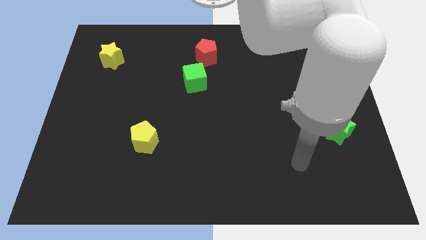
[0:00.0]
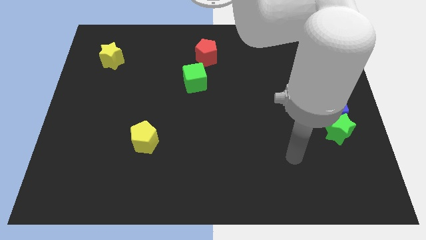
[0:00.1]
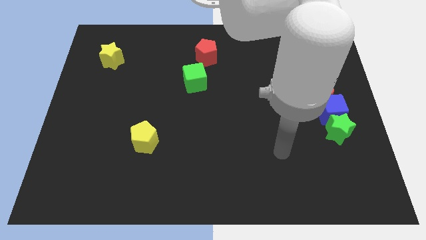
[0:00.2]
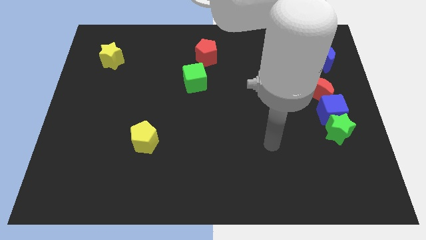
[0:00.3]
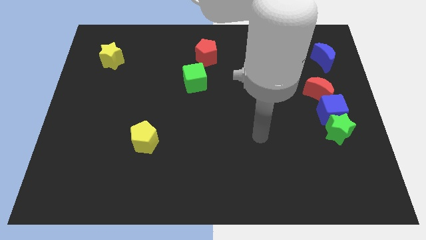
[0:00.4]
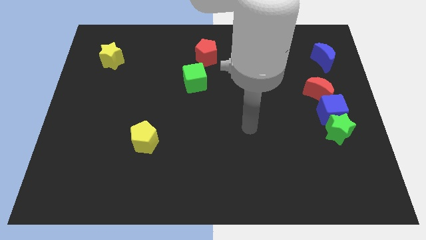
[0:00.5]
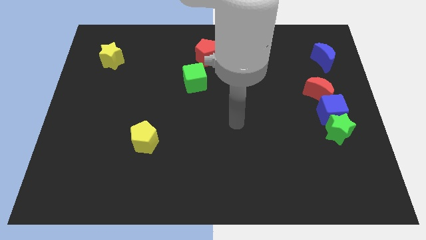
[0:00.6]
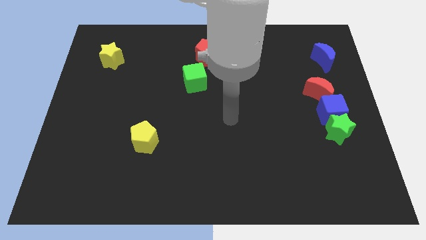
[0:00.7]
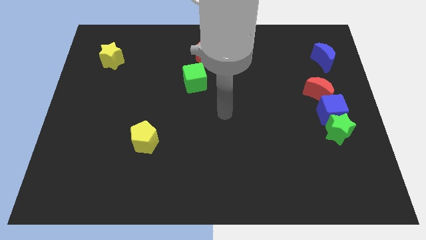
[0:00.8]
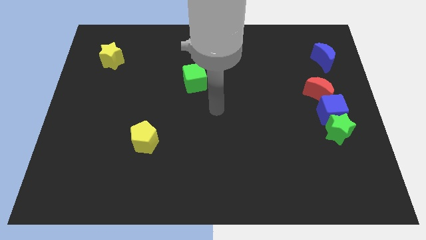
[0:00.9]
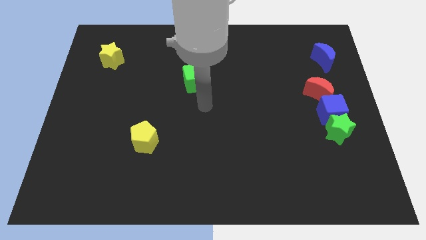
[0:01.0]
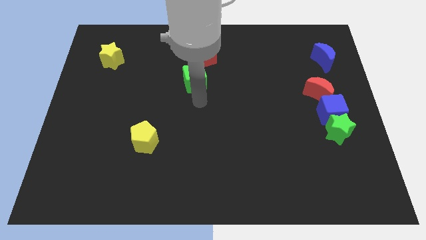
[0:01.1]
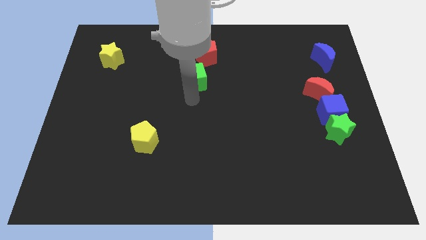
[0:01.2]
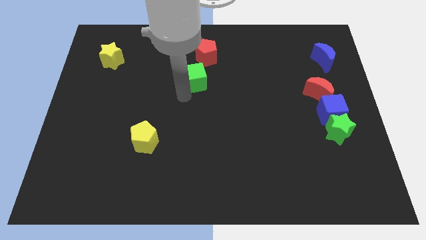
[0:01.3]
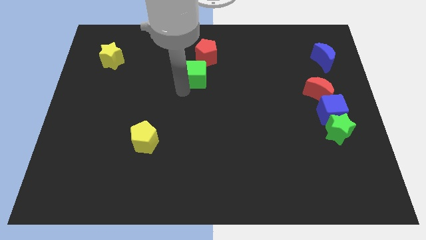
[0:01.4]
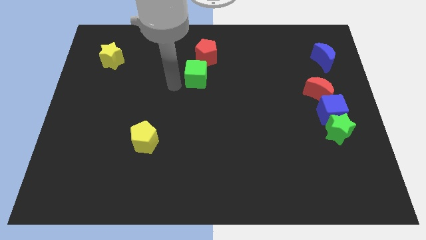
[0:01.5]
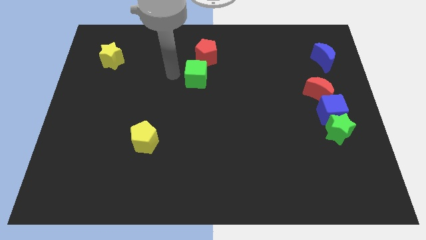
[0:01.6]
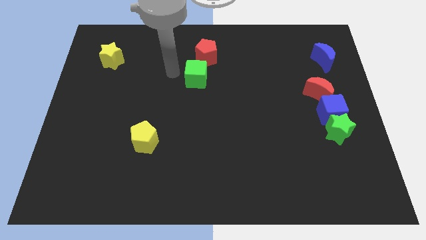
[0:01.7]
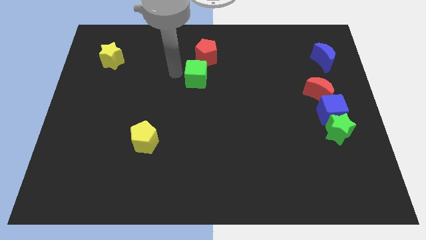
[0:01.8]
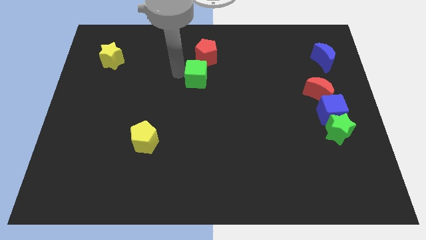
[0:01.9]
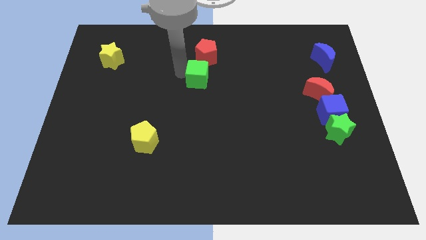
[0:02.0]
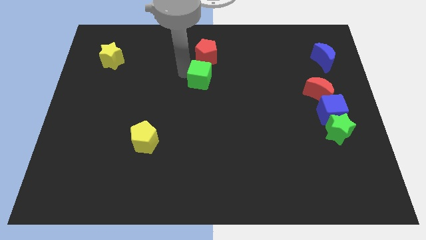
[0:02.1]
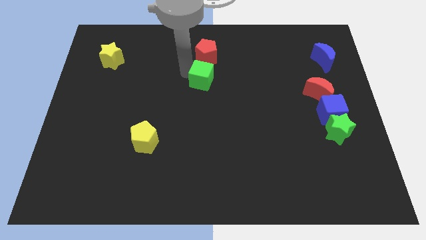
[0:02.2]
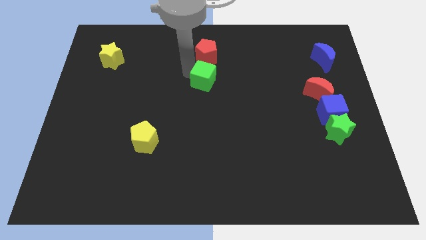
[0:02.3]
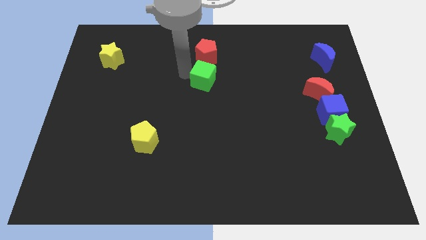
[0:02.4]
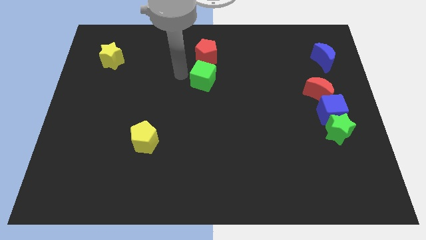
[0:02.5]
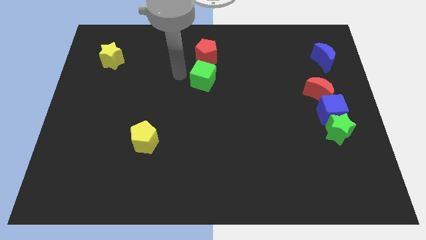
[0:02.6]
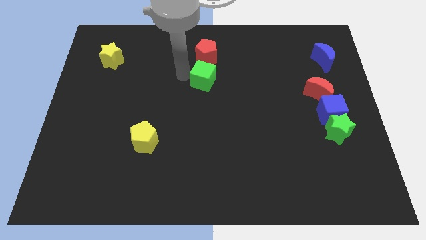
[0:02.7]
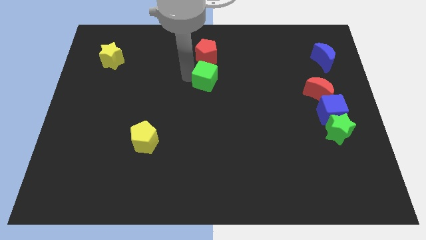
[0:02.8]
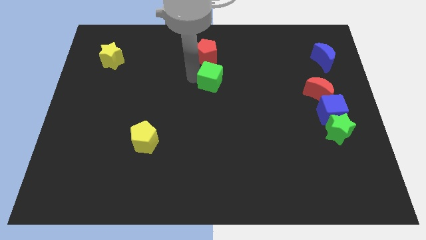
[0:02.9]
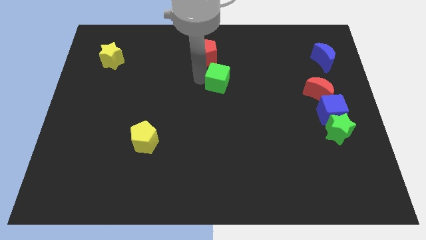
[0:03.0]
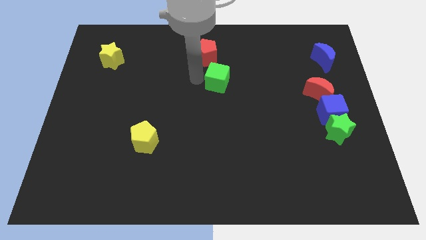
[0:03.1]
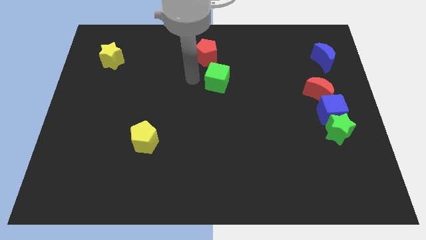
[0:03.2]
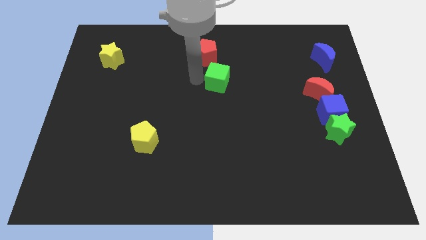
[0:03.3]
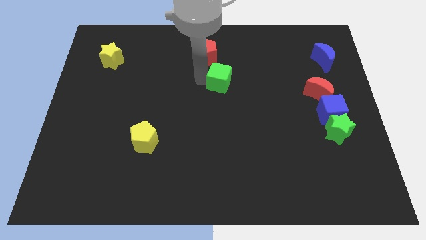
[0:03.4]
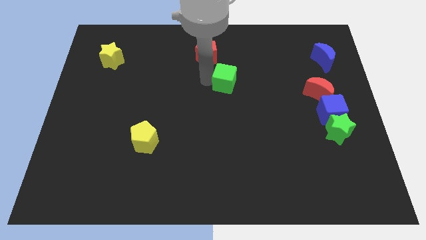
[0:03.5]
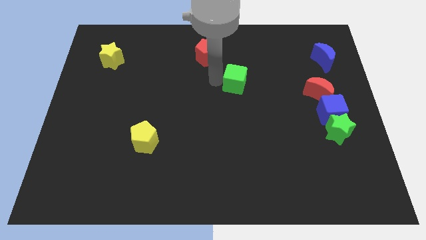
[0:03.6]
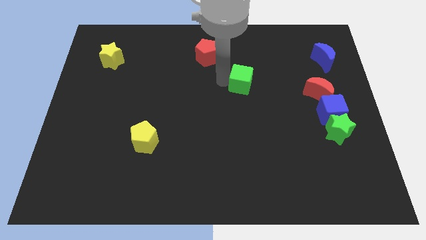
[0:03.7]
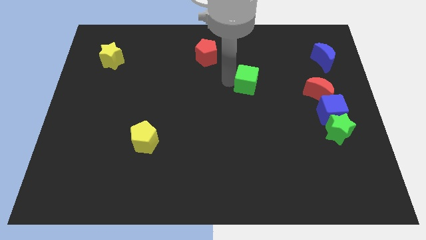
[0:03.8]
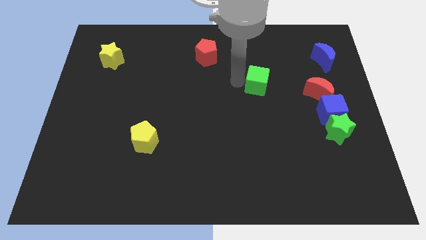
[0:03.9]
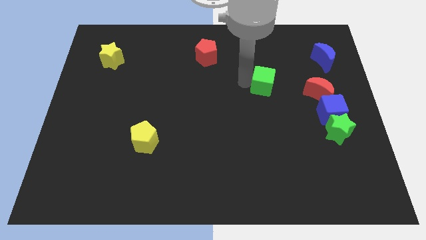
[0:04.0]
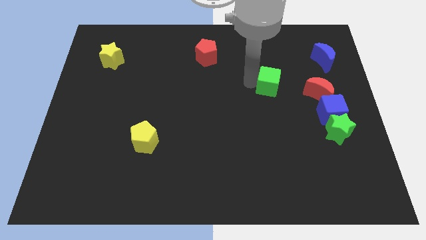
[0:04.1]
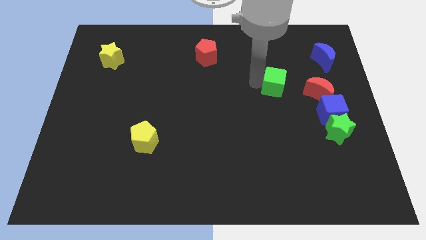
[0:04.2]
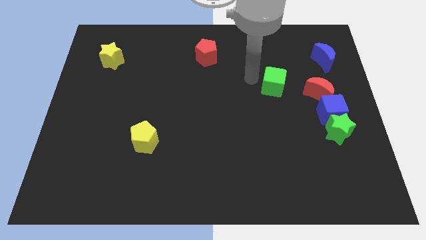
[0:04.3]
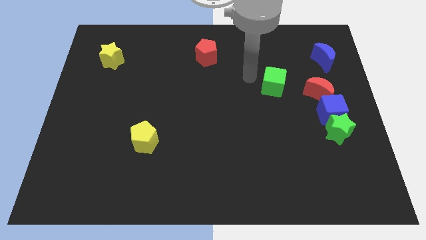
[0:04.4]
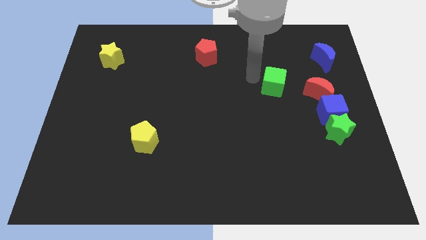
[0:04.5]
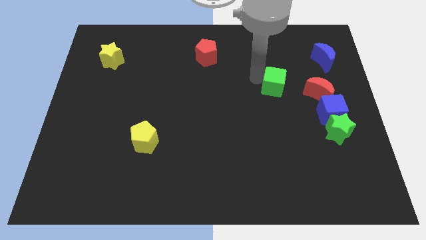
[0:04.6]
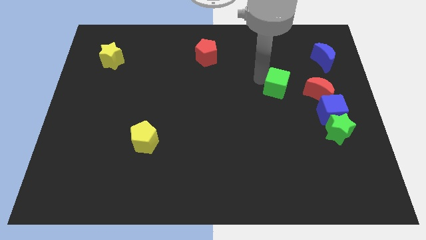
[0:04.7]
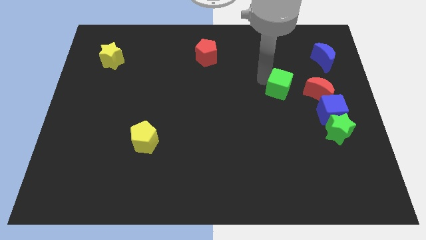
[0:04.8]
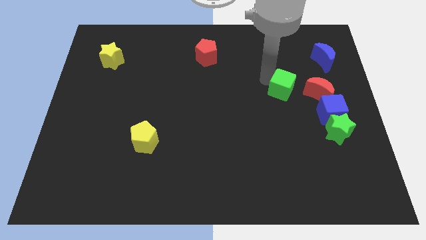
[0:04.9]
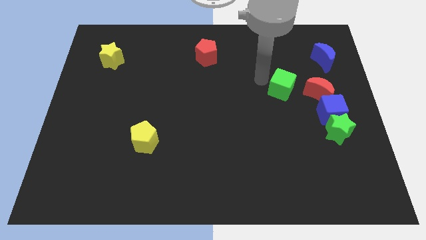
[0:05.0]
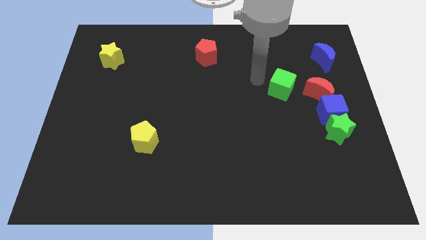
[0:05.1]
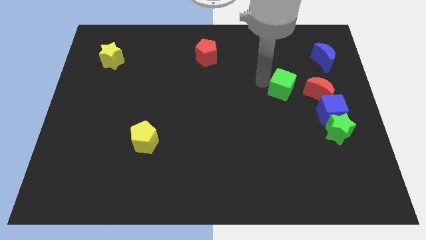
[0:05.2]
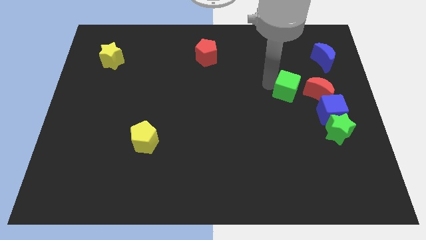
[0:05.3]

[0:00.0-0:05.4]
put the green cube to the top left side of the blue cube

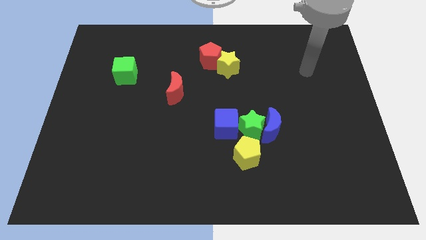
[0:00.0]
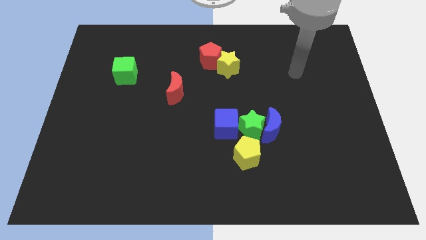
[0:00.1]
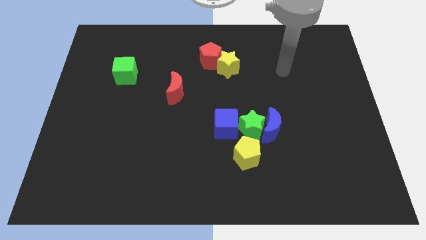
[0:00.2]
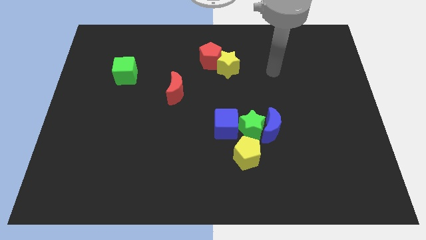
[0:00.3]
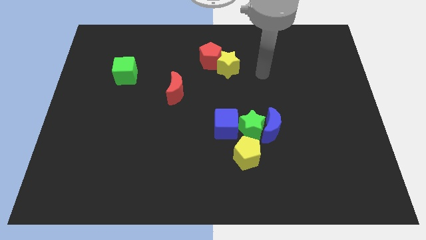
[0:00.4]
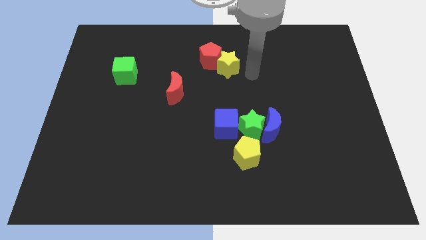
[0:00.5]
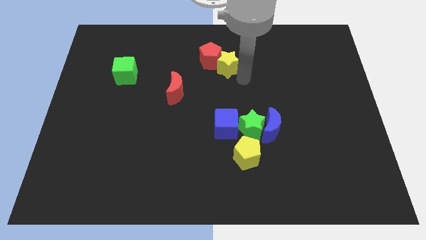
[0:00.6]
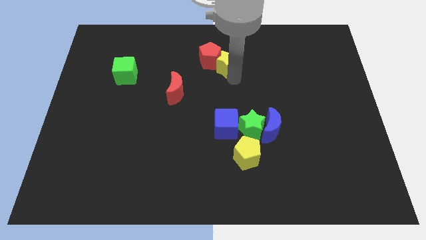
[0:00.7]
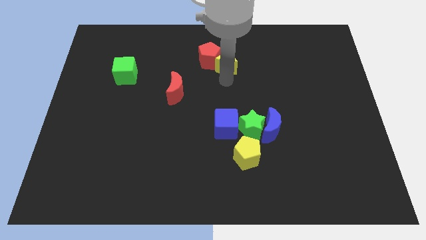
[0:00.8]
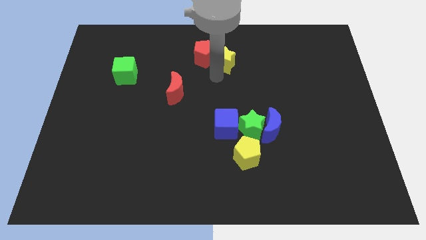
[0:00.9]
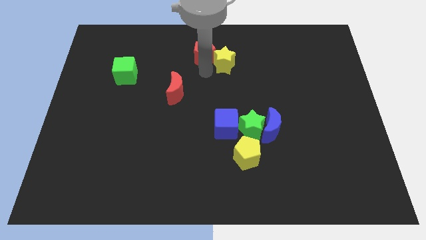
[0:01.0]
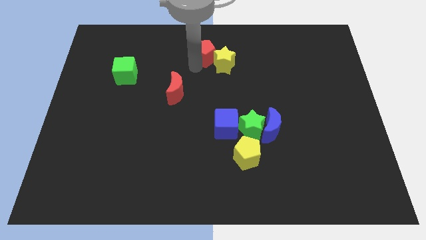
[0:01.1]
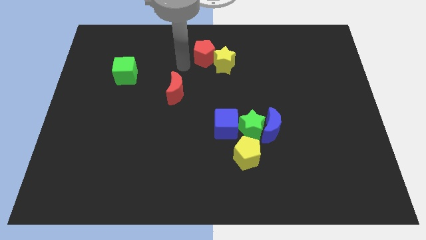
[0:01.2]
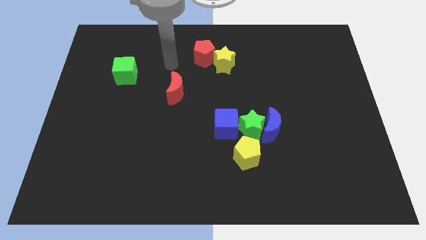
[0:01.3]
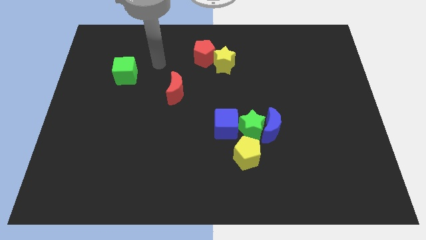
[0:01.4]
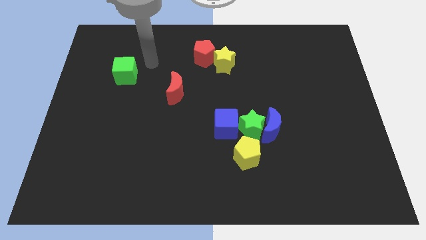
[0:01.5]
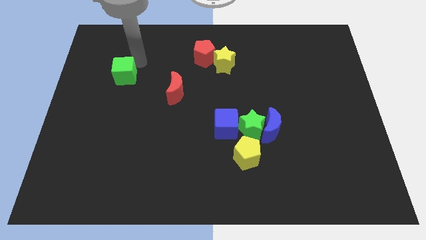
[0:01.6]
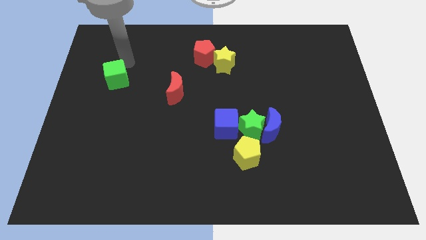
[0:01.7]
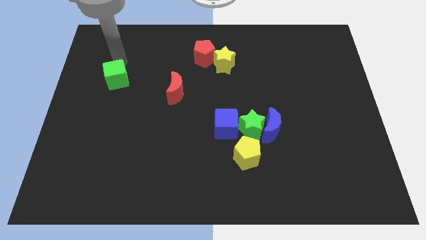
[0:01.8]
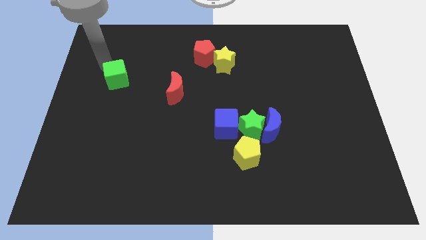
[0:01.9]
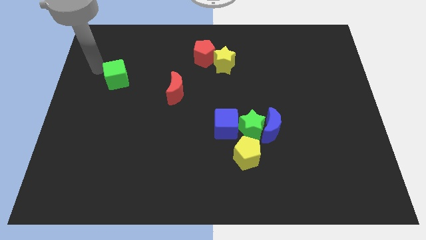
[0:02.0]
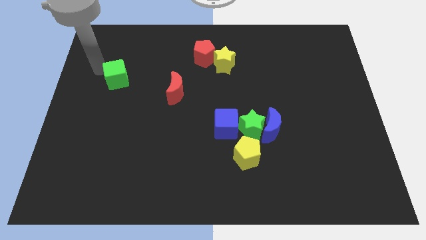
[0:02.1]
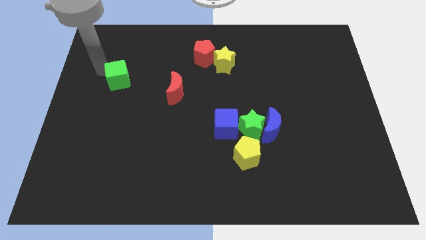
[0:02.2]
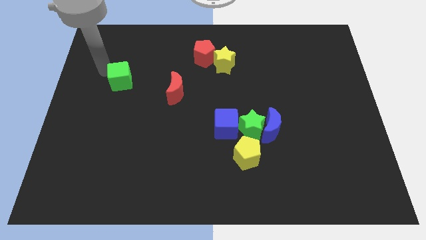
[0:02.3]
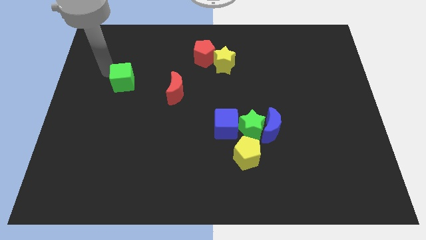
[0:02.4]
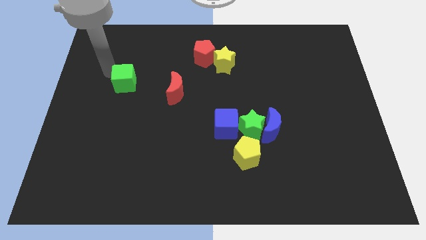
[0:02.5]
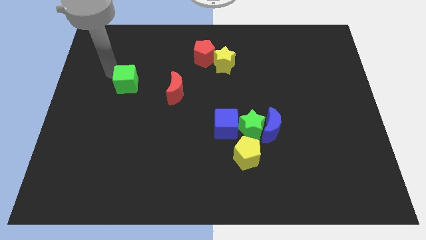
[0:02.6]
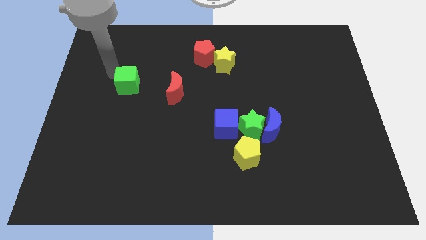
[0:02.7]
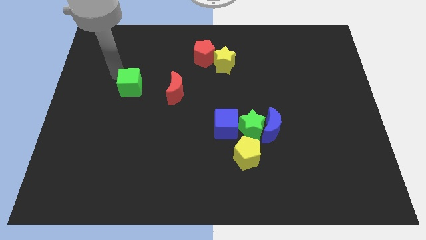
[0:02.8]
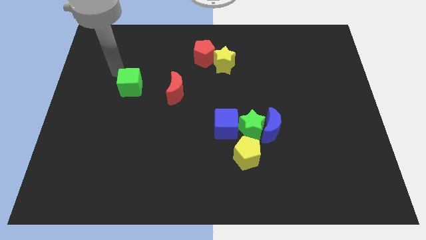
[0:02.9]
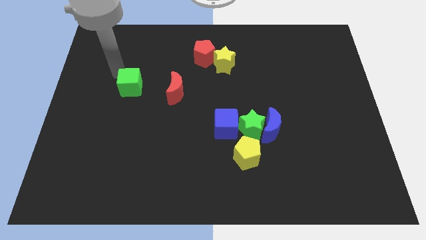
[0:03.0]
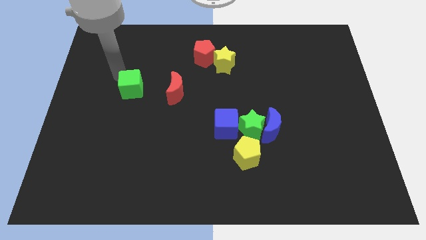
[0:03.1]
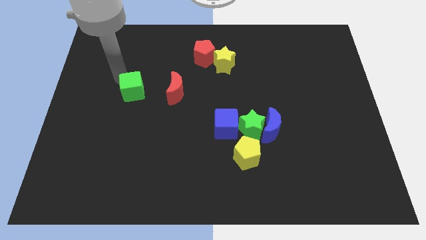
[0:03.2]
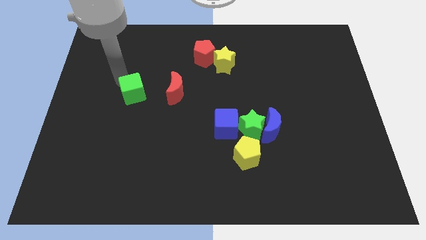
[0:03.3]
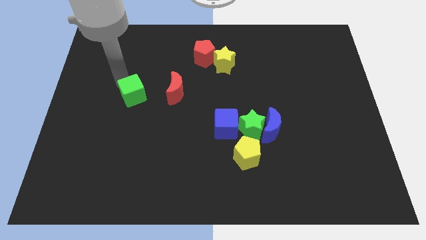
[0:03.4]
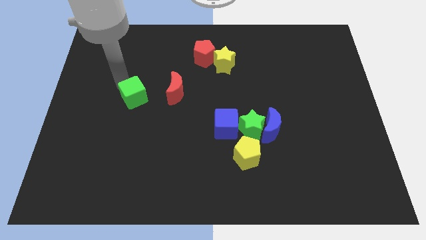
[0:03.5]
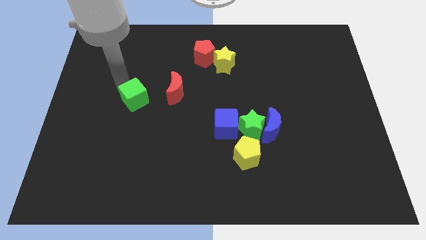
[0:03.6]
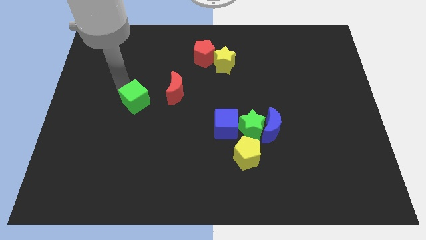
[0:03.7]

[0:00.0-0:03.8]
move the green cube to the bottom left of the red moon
